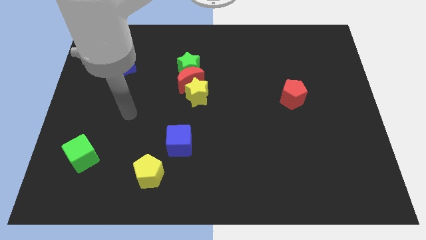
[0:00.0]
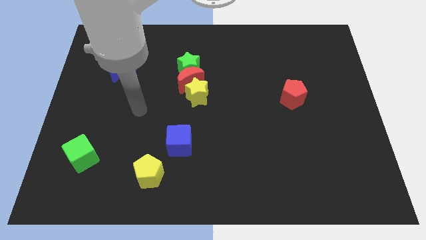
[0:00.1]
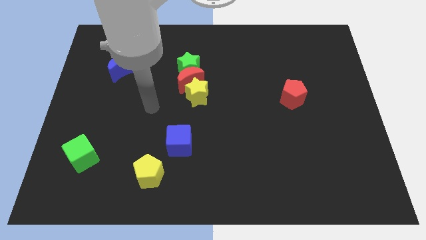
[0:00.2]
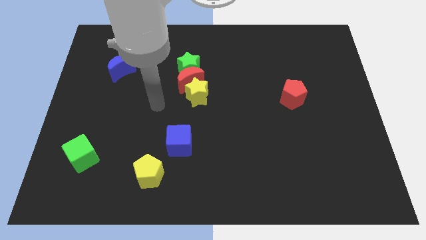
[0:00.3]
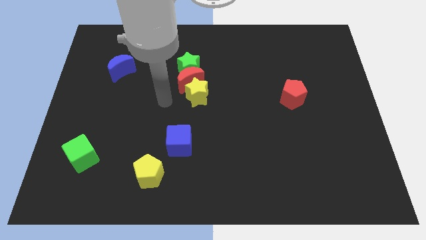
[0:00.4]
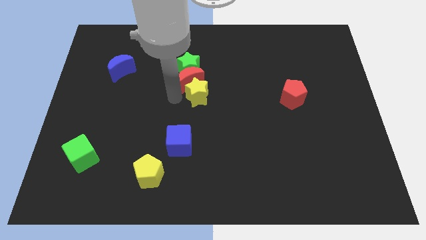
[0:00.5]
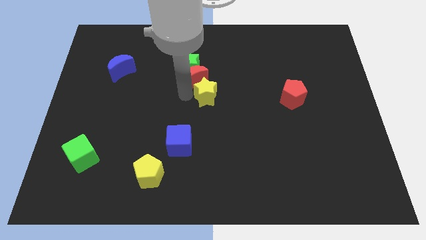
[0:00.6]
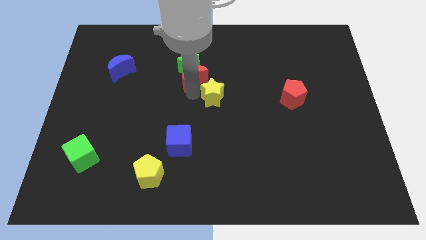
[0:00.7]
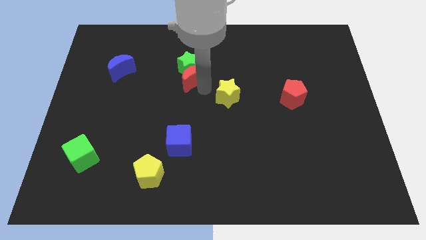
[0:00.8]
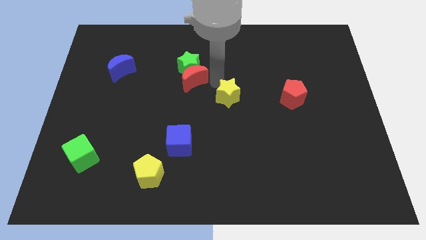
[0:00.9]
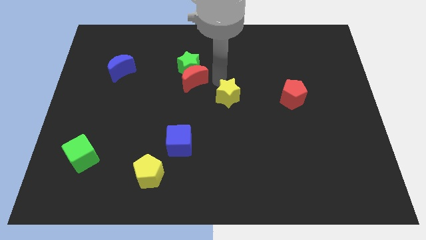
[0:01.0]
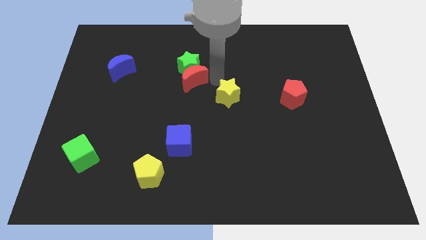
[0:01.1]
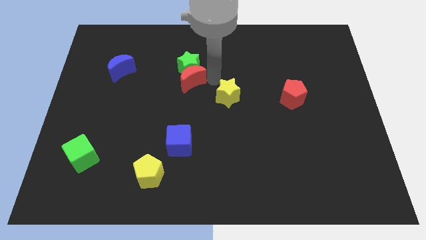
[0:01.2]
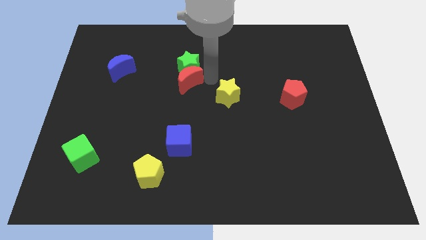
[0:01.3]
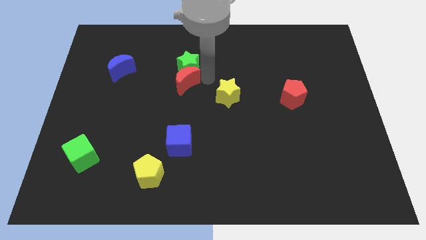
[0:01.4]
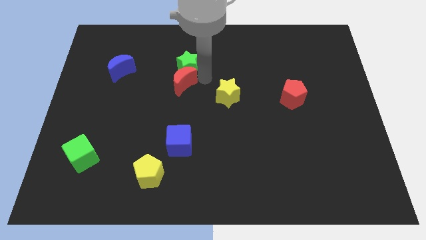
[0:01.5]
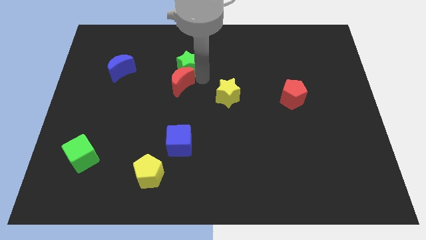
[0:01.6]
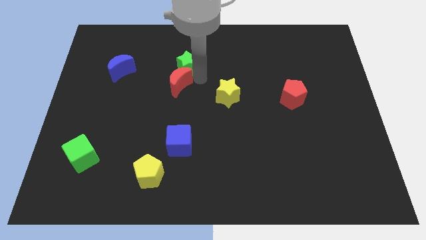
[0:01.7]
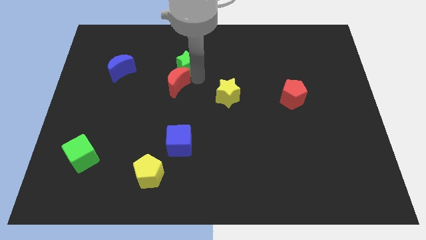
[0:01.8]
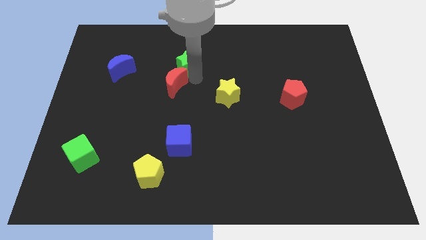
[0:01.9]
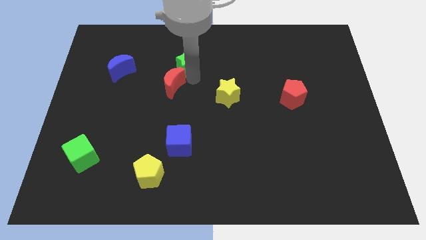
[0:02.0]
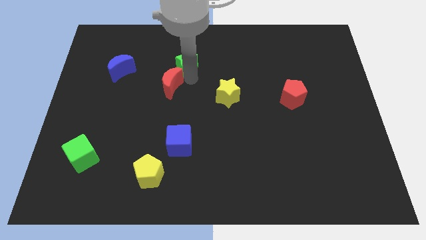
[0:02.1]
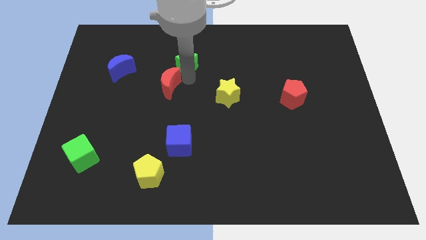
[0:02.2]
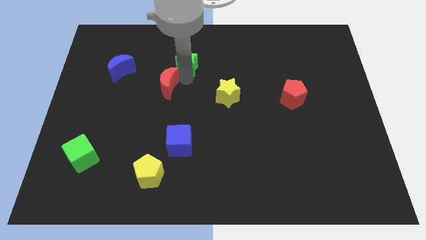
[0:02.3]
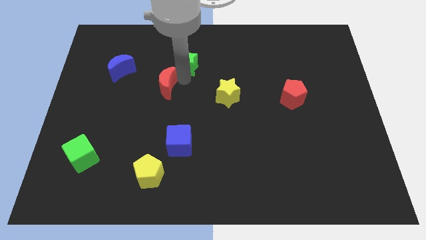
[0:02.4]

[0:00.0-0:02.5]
separate the red moon from the green star and yellow star

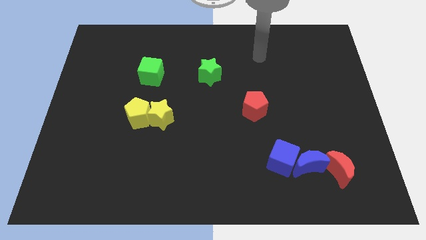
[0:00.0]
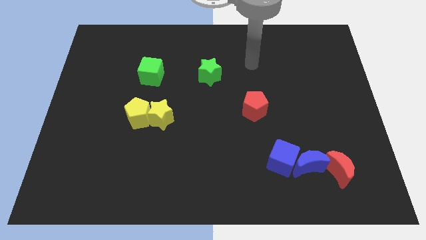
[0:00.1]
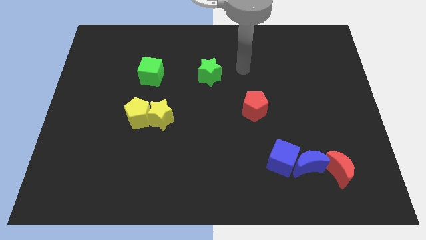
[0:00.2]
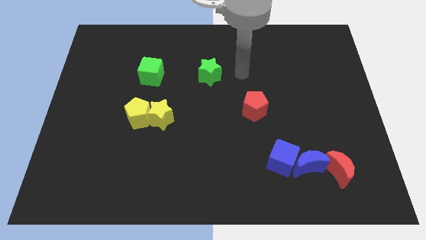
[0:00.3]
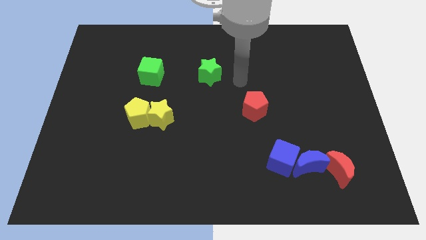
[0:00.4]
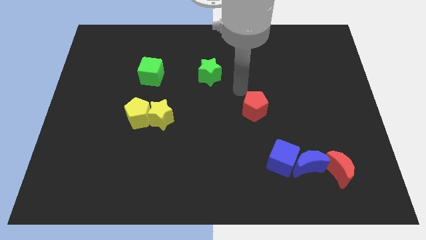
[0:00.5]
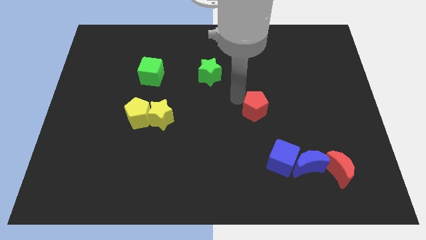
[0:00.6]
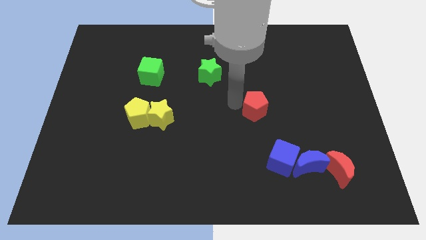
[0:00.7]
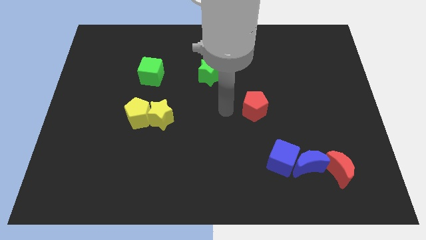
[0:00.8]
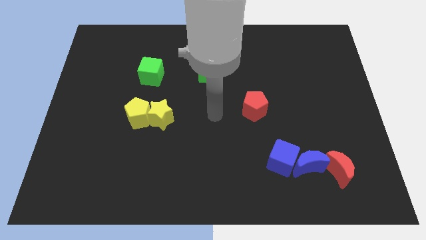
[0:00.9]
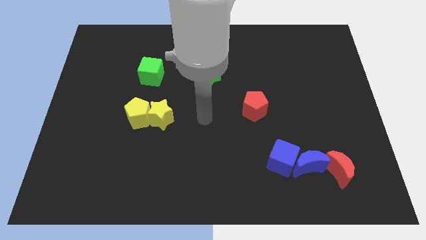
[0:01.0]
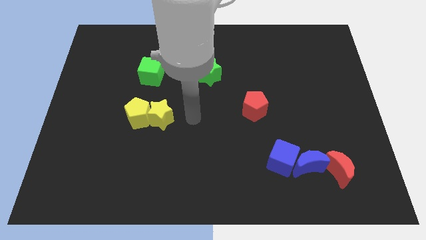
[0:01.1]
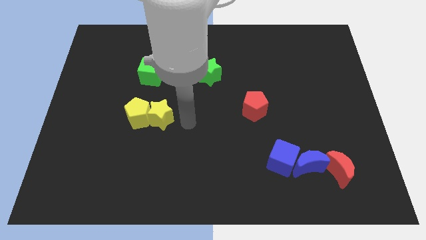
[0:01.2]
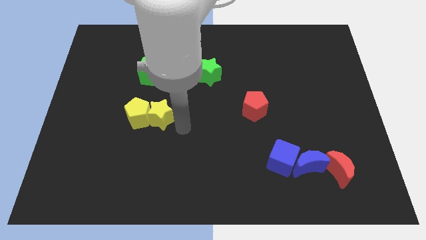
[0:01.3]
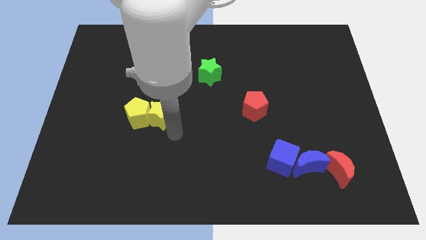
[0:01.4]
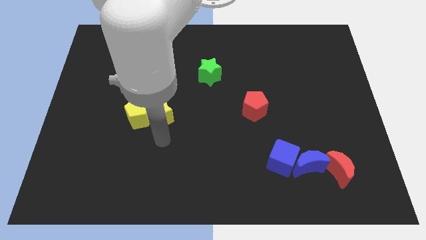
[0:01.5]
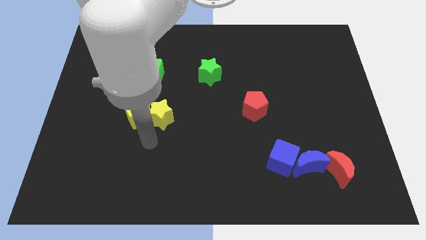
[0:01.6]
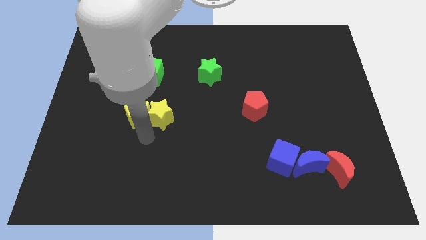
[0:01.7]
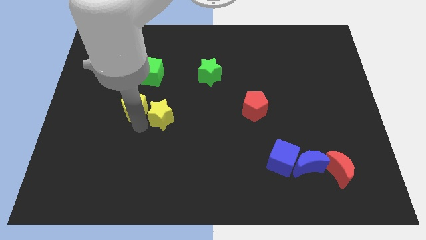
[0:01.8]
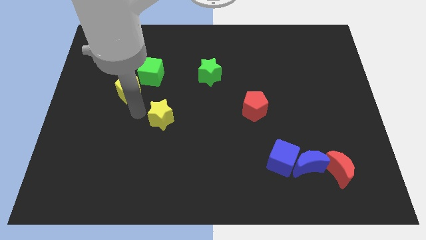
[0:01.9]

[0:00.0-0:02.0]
move the yellow star away from the yellow pentagon

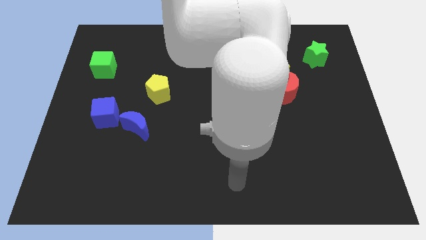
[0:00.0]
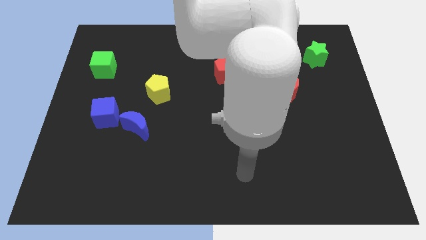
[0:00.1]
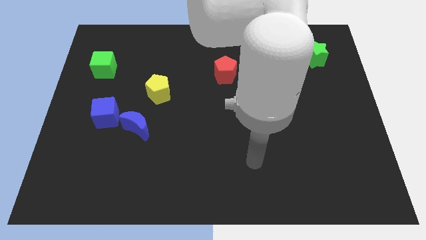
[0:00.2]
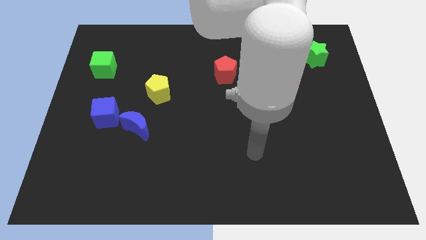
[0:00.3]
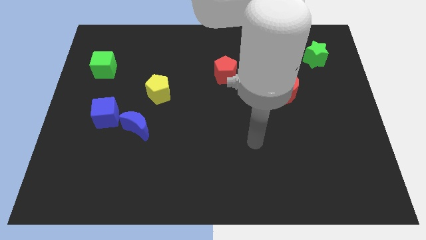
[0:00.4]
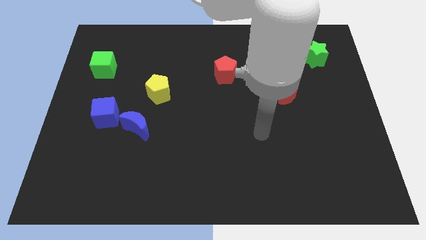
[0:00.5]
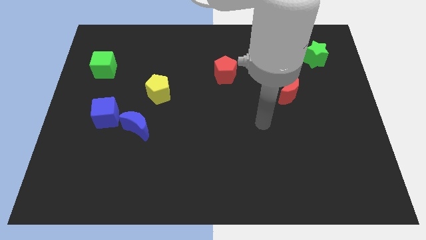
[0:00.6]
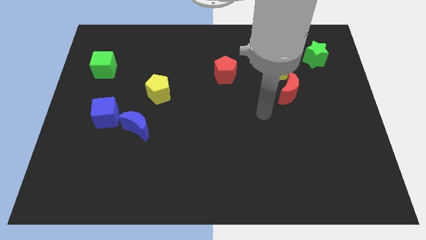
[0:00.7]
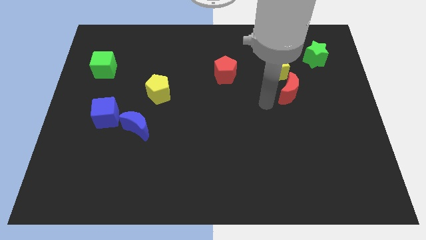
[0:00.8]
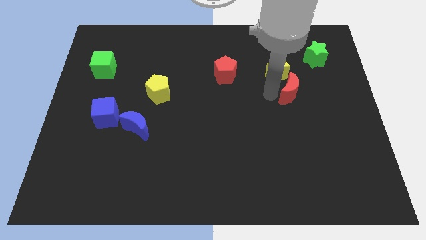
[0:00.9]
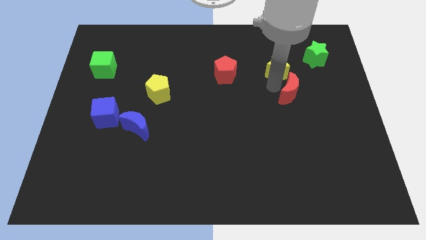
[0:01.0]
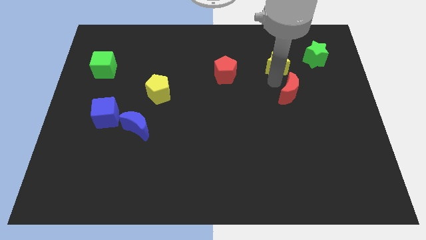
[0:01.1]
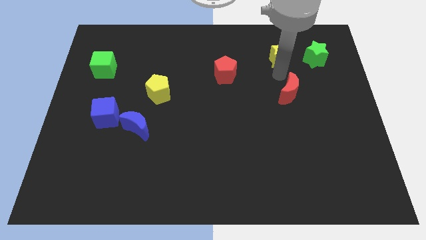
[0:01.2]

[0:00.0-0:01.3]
separate the red moon from the yellow star

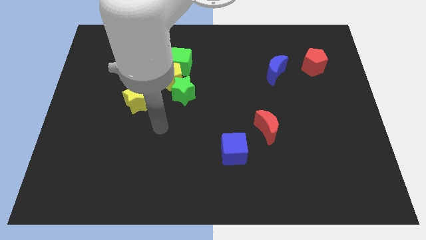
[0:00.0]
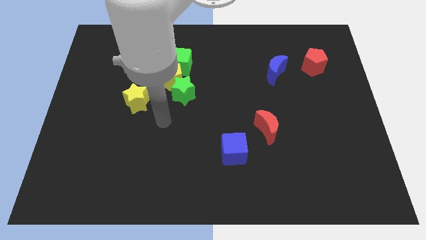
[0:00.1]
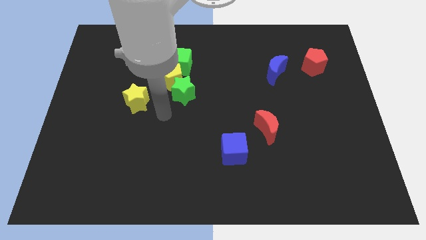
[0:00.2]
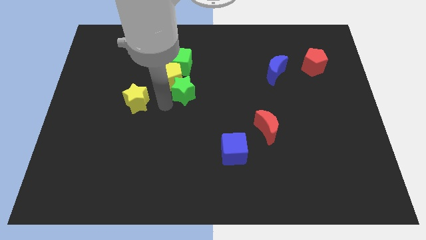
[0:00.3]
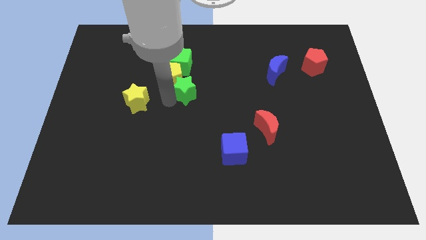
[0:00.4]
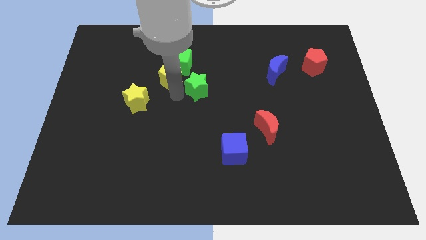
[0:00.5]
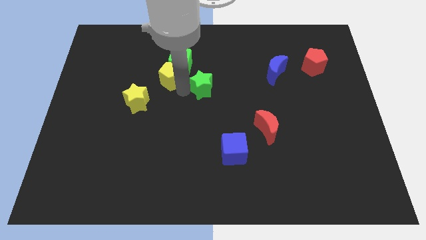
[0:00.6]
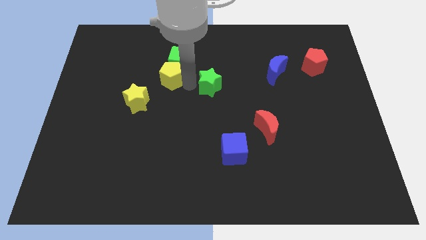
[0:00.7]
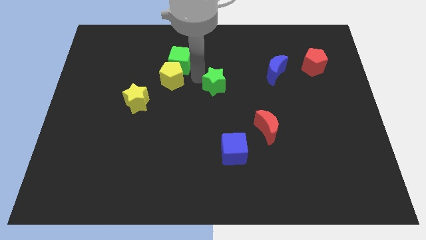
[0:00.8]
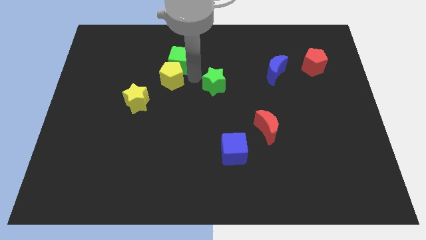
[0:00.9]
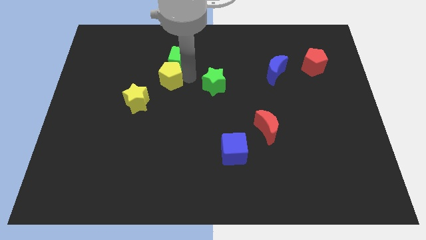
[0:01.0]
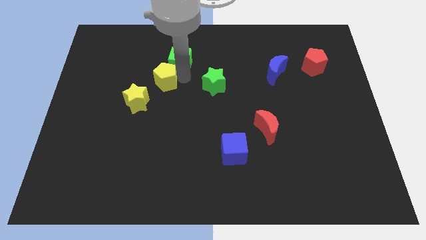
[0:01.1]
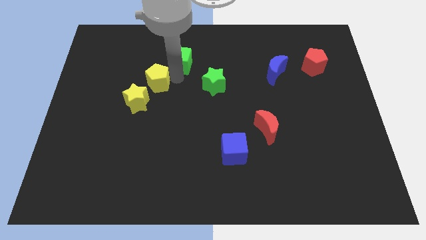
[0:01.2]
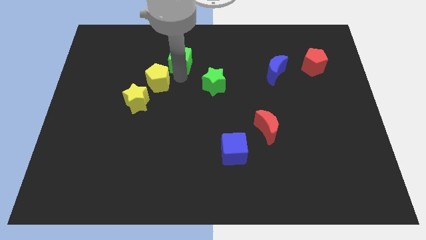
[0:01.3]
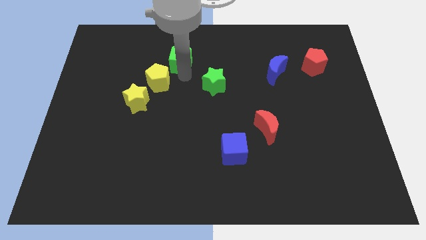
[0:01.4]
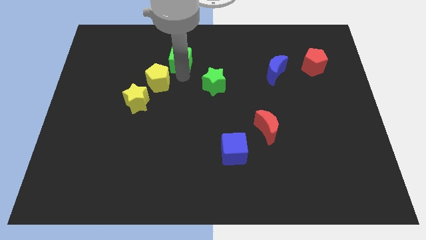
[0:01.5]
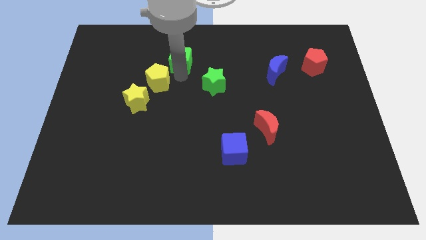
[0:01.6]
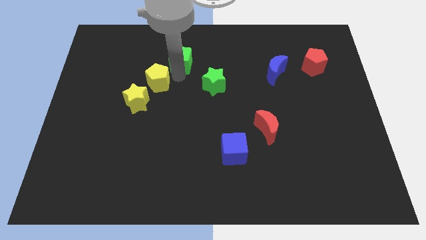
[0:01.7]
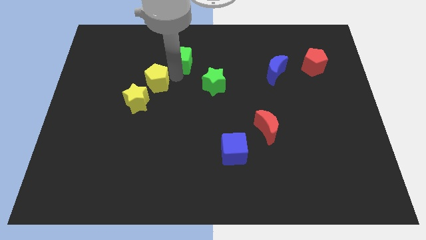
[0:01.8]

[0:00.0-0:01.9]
separate the yellow pentagon from the green cube and green star

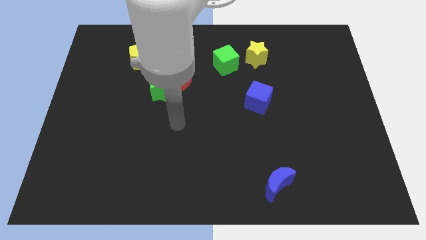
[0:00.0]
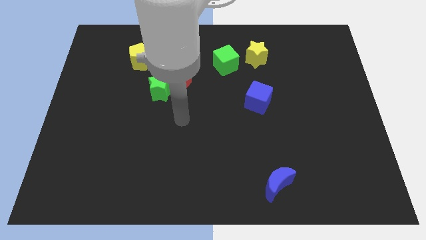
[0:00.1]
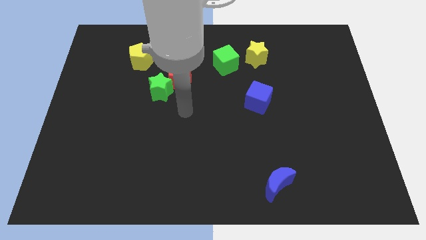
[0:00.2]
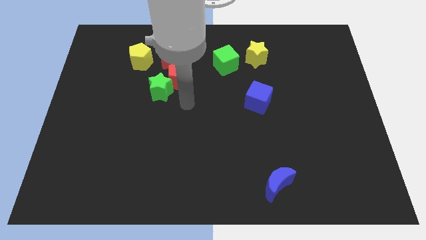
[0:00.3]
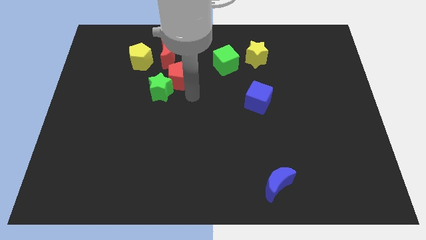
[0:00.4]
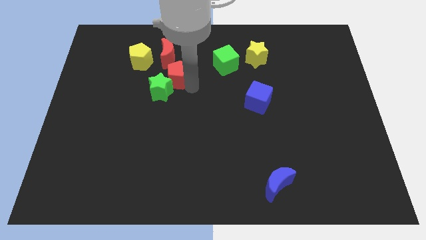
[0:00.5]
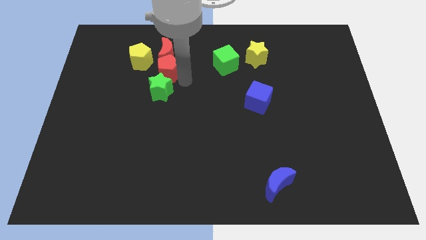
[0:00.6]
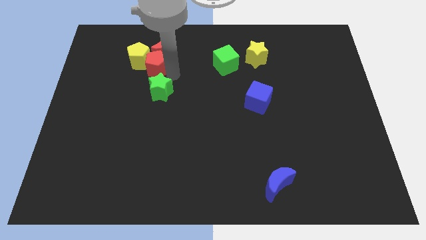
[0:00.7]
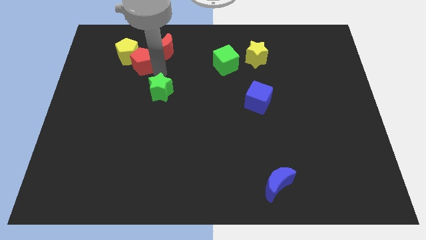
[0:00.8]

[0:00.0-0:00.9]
move the green star away from the red pentagon

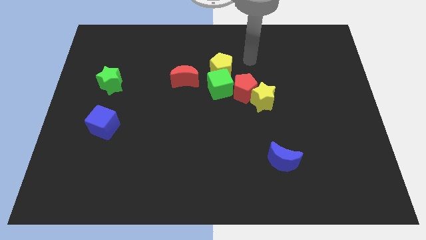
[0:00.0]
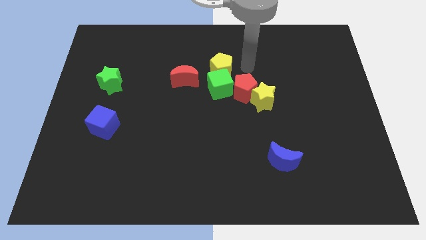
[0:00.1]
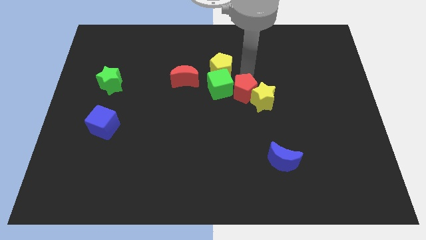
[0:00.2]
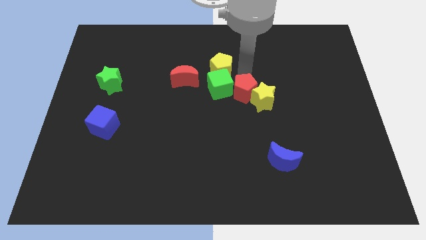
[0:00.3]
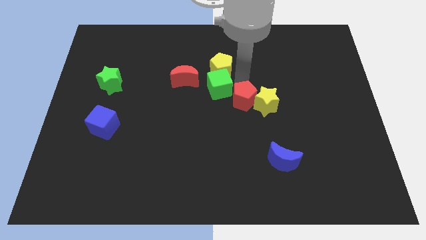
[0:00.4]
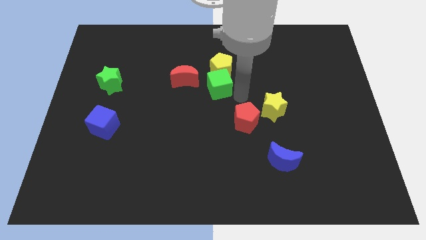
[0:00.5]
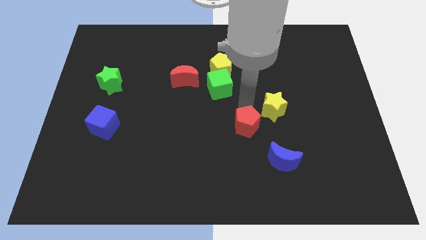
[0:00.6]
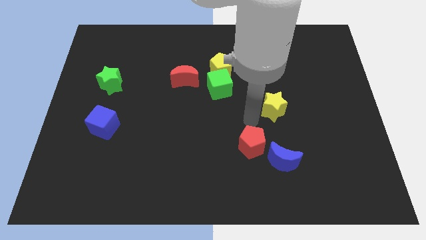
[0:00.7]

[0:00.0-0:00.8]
separate the yellow star from the red pentagon
